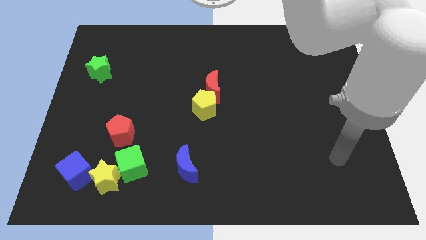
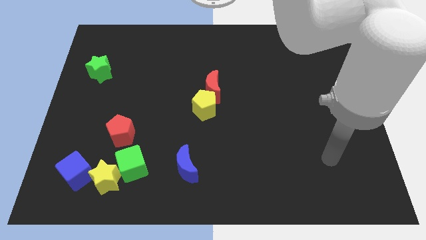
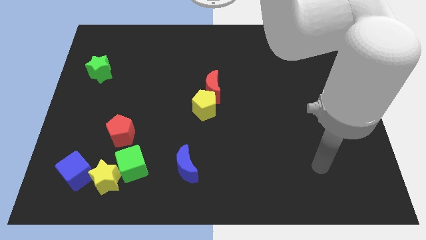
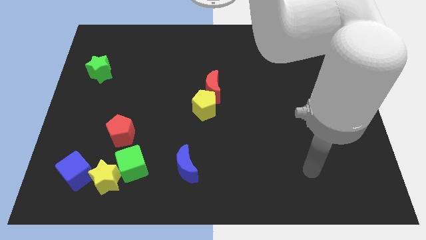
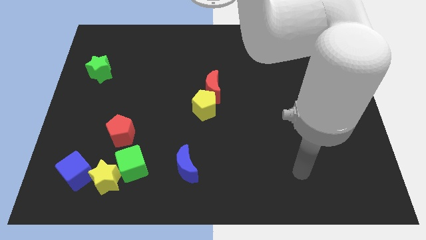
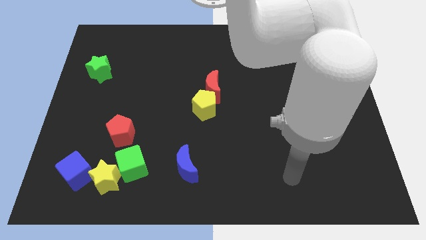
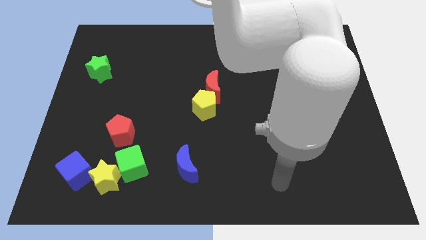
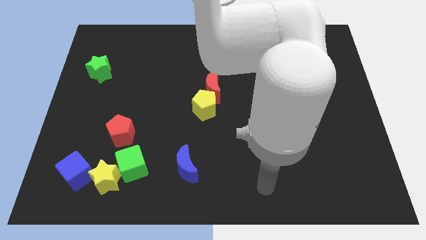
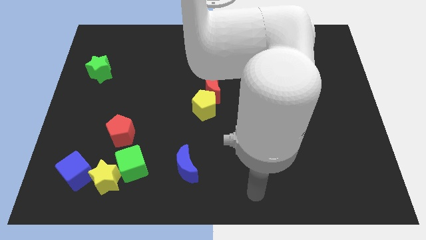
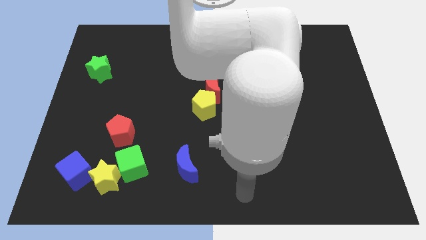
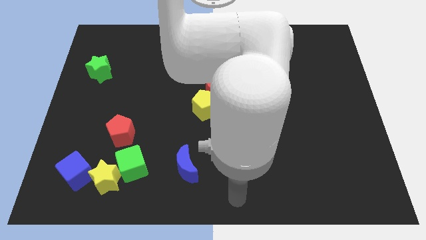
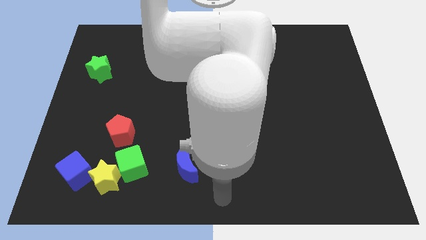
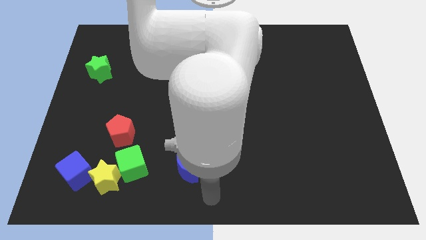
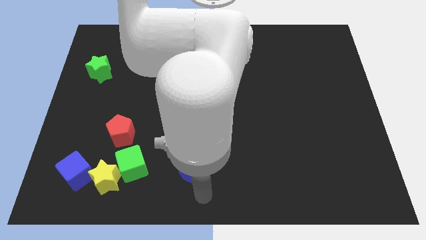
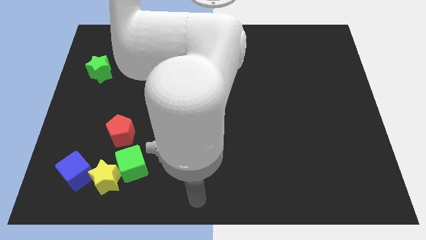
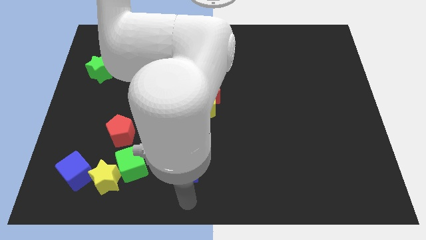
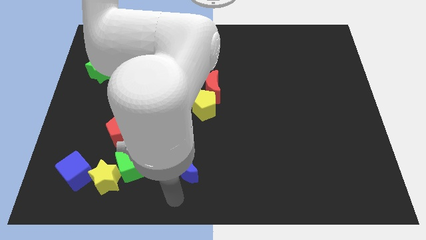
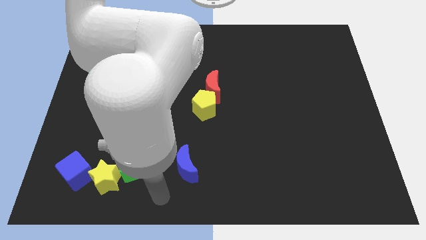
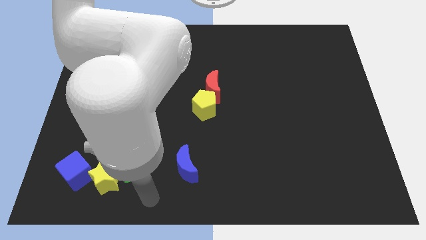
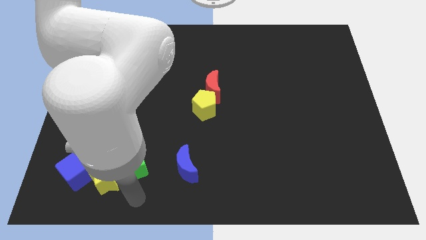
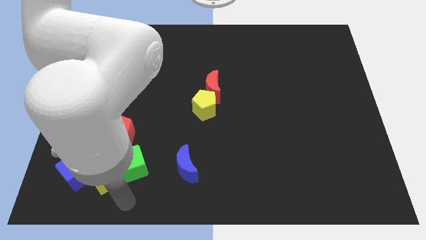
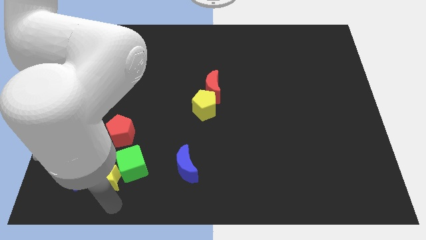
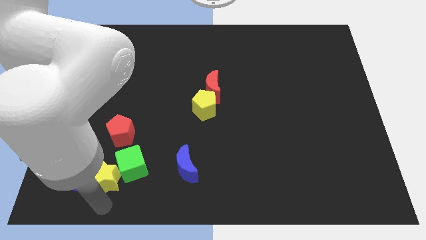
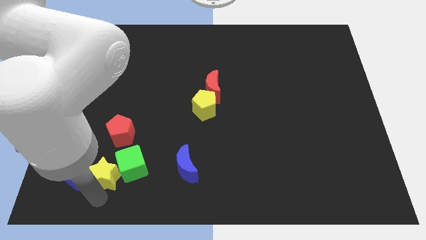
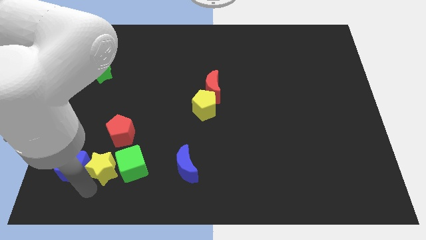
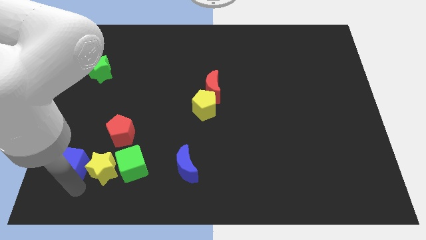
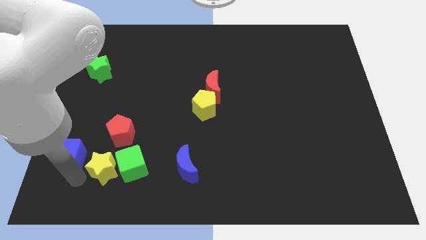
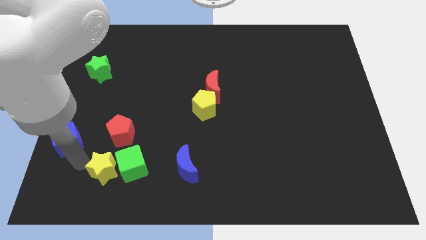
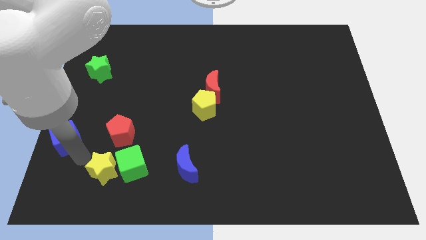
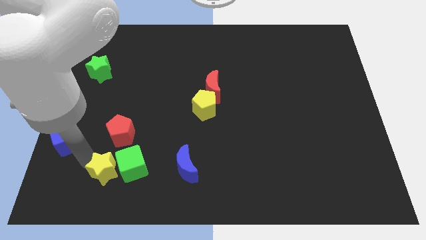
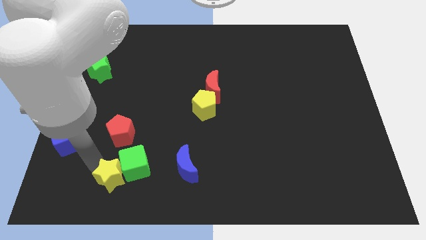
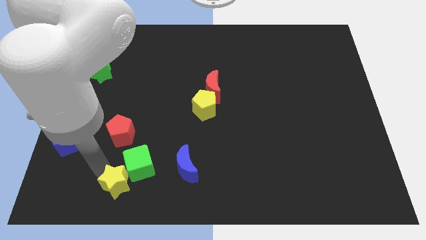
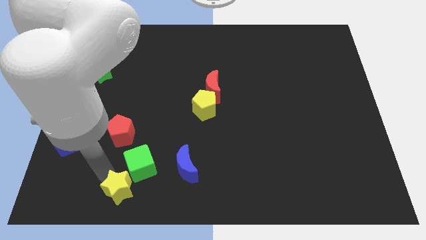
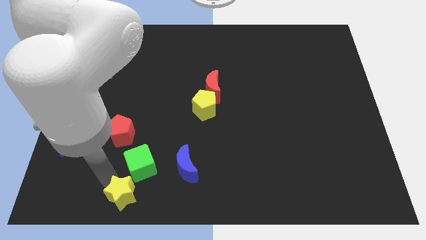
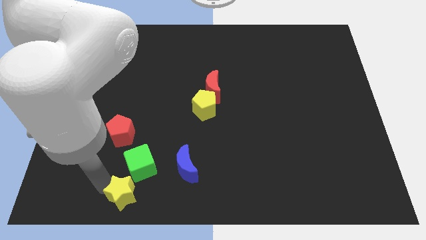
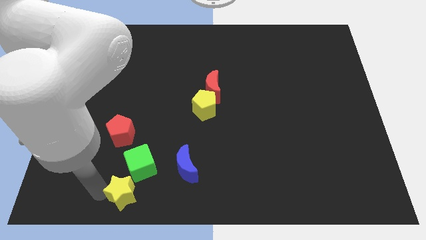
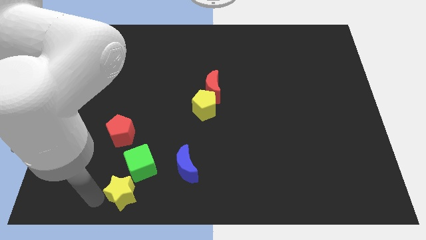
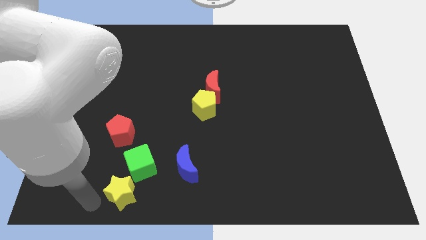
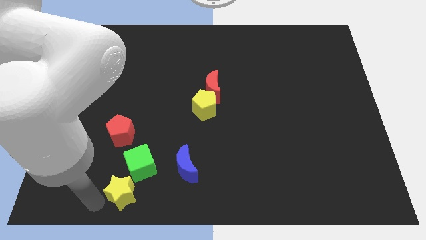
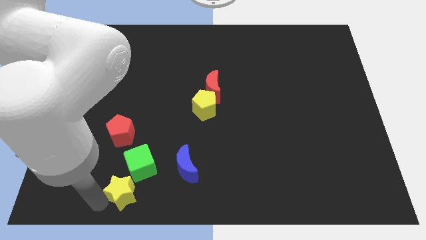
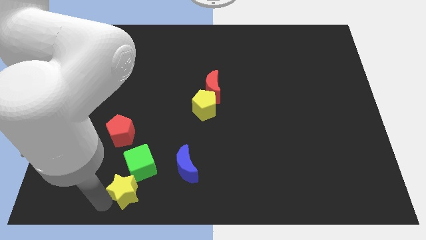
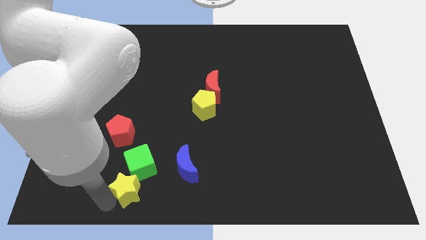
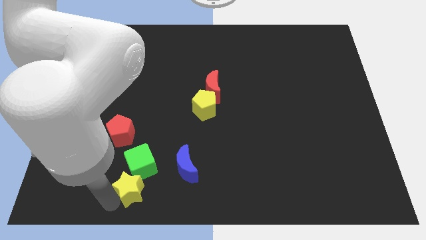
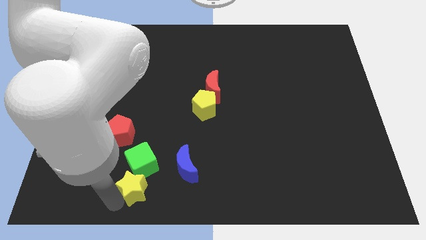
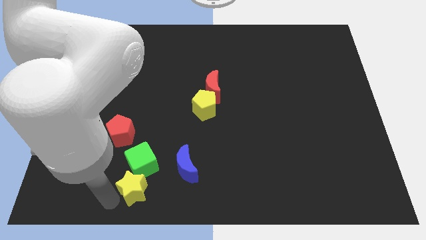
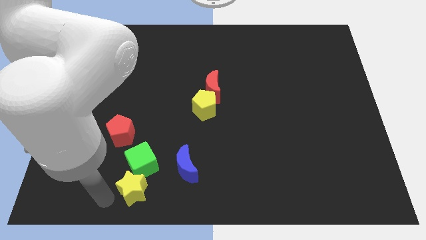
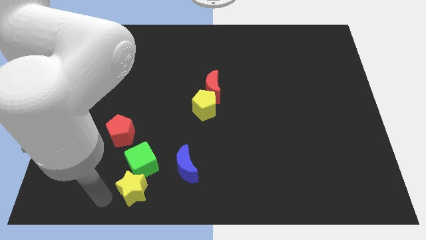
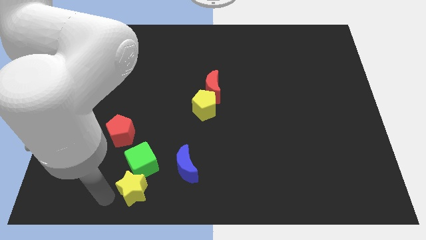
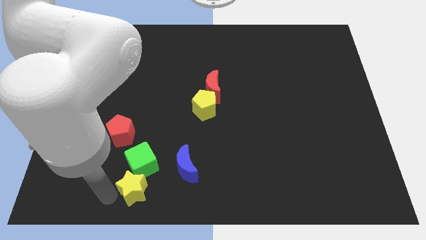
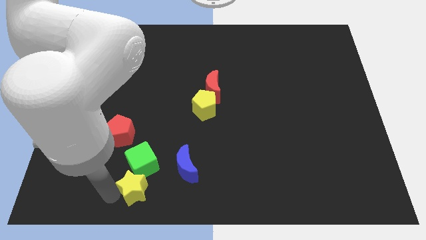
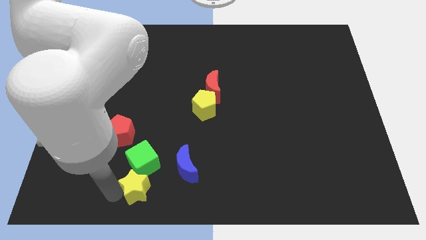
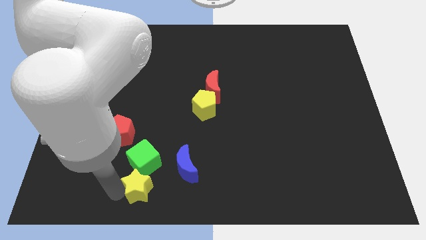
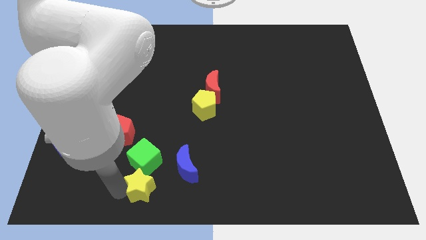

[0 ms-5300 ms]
move the yellow star right a bit

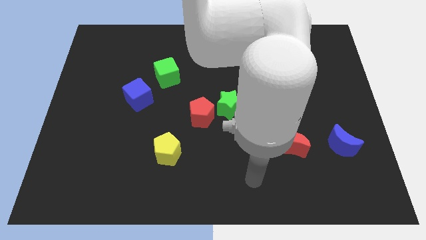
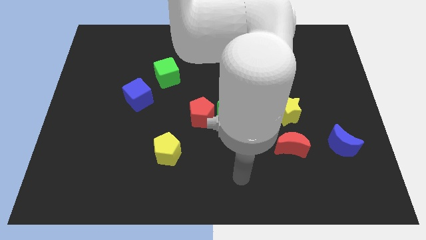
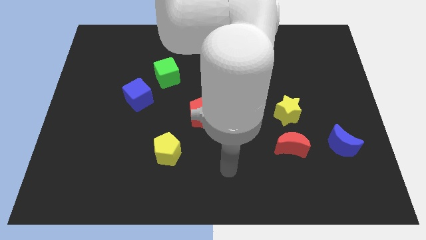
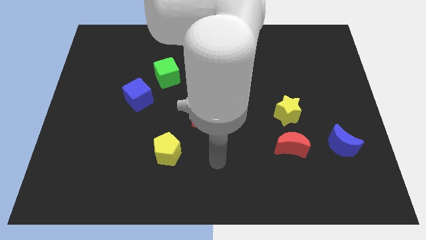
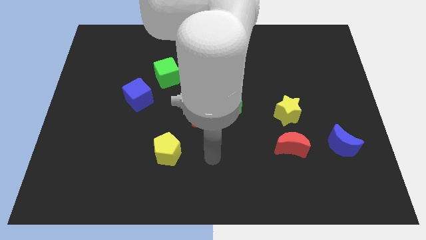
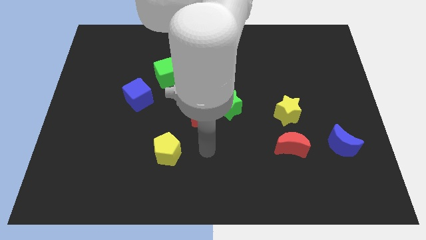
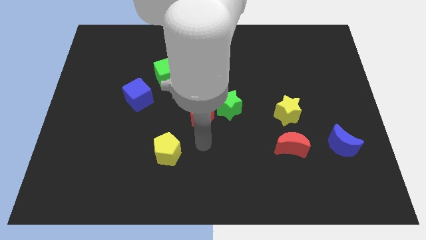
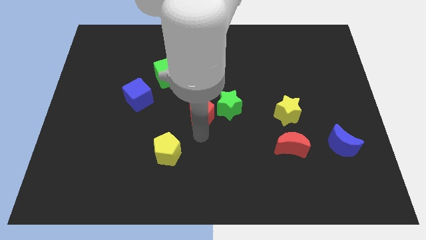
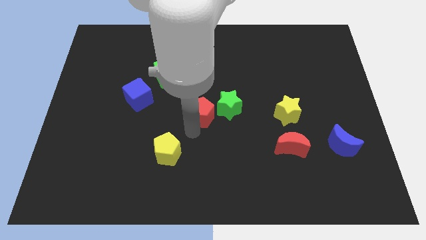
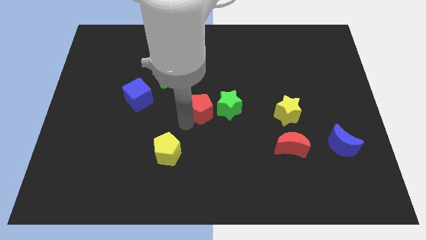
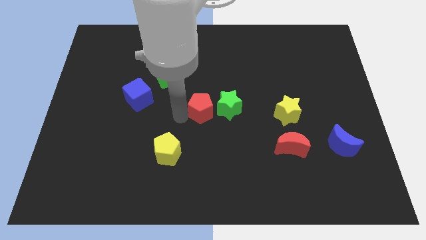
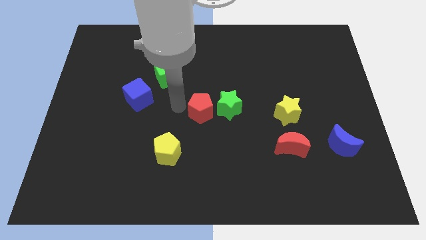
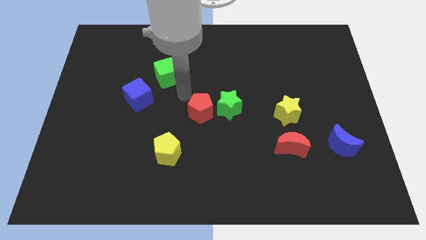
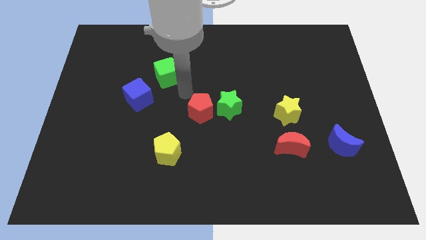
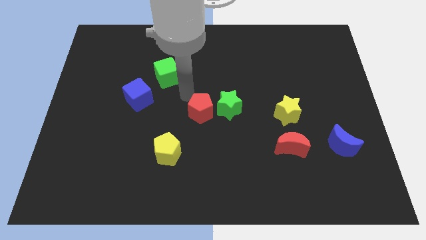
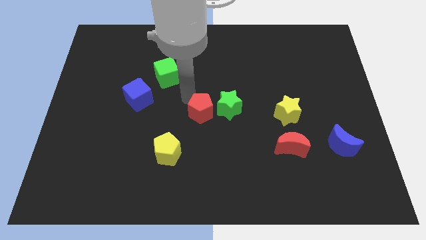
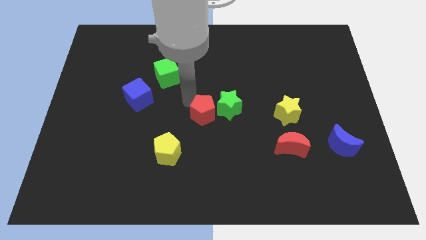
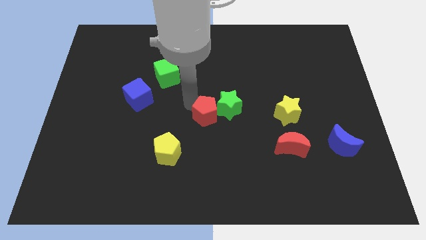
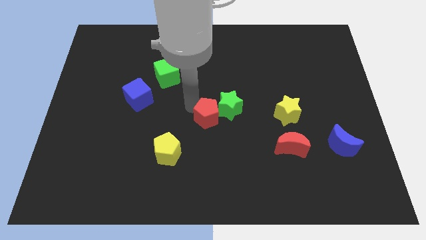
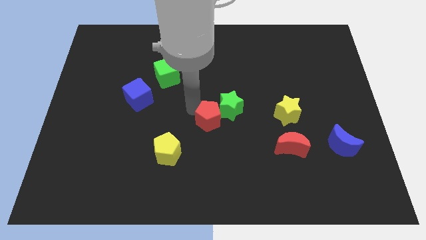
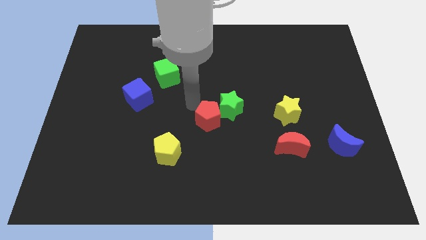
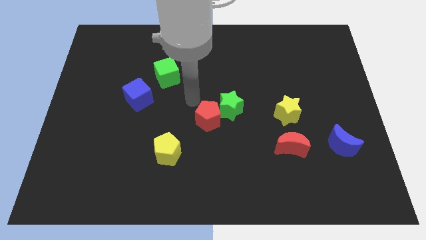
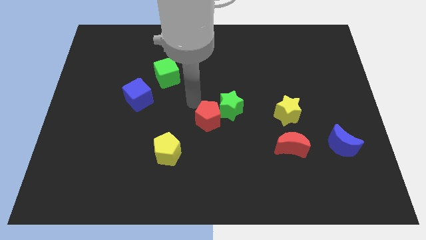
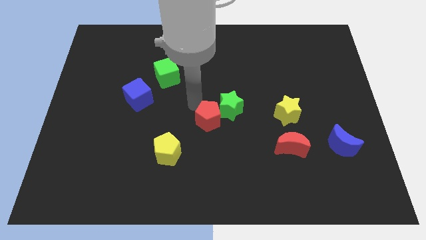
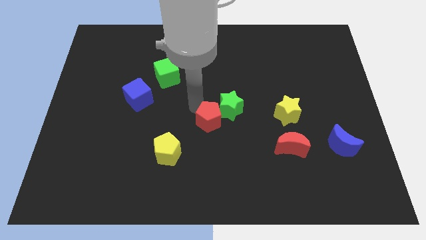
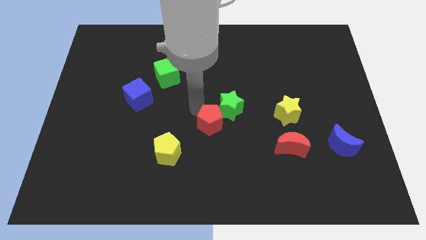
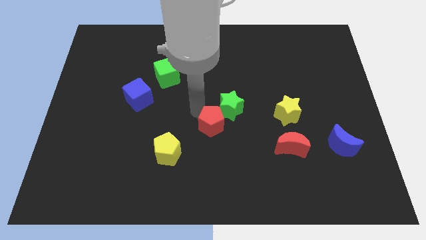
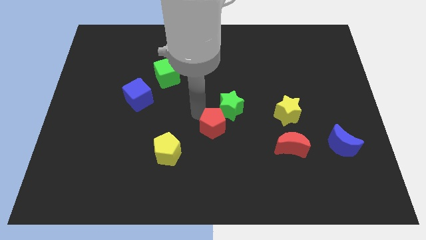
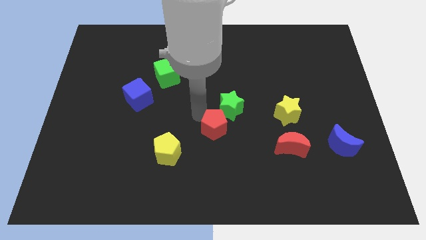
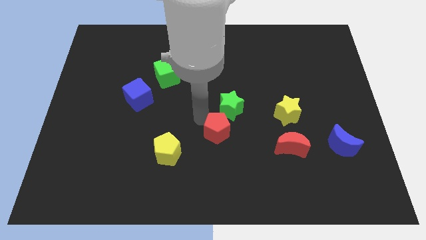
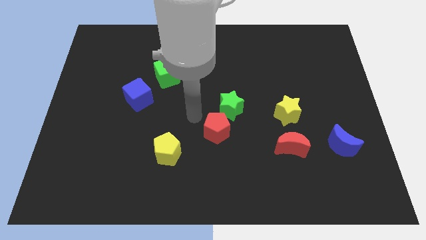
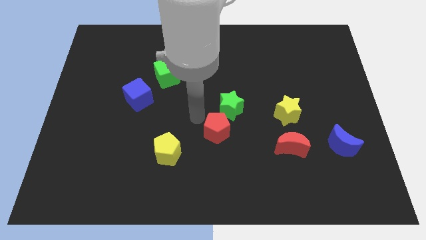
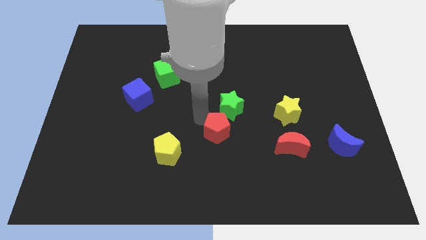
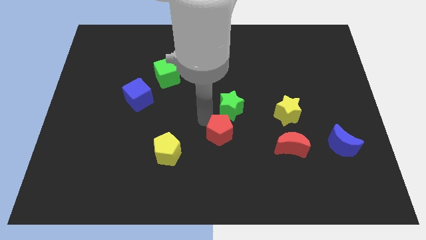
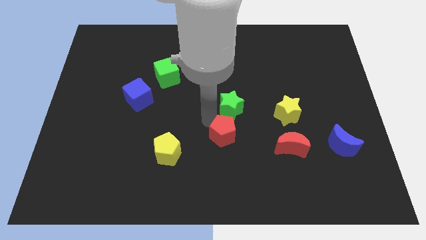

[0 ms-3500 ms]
move the red pentagon a little downwards and to the right
